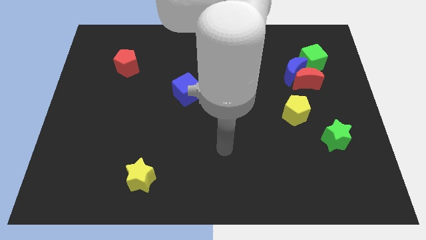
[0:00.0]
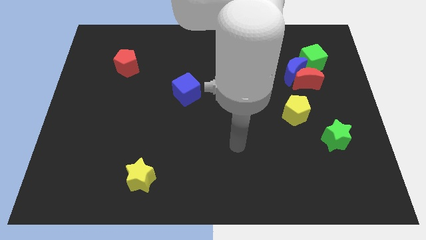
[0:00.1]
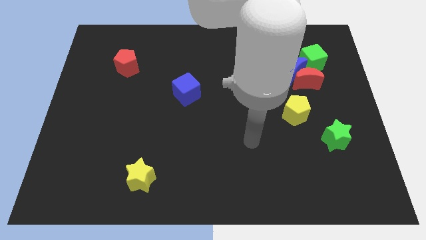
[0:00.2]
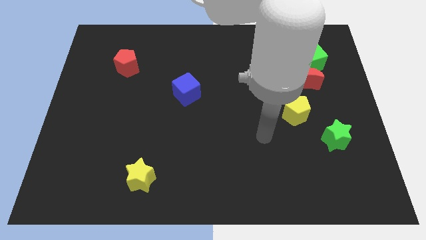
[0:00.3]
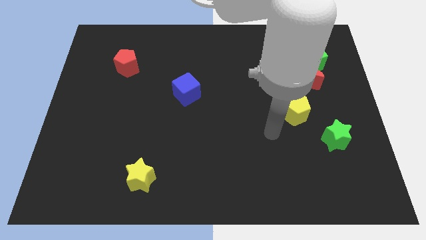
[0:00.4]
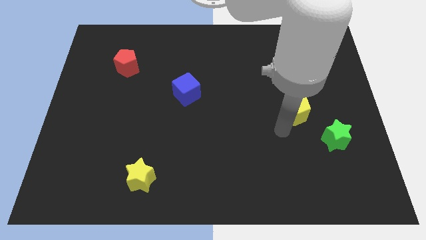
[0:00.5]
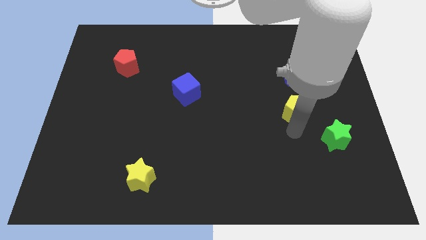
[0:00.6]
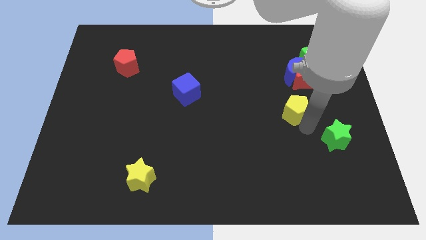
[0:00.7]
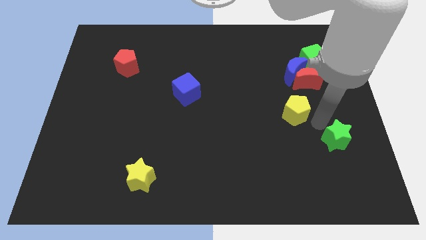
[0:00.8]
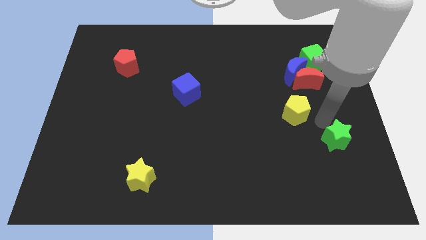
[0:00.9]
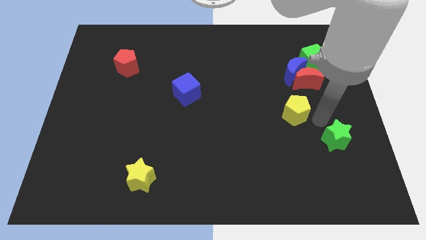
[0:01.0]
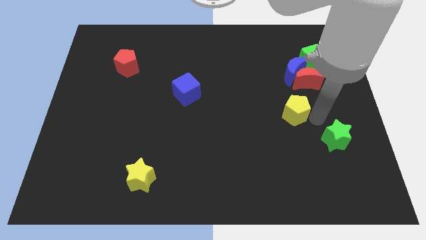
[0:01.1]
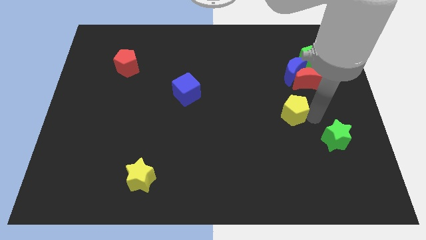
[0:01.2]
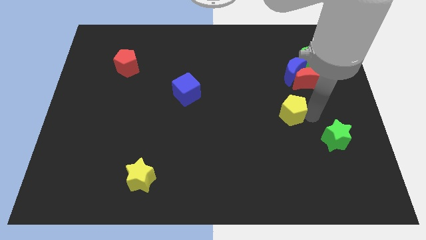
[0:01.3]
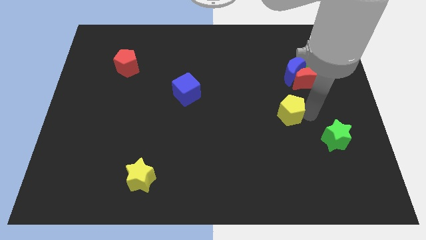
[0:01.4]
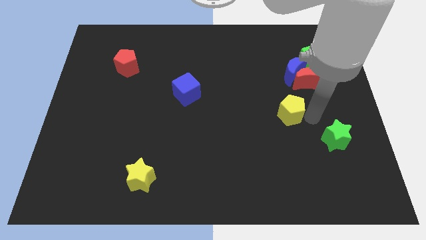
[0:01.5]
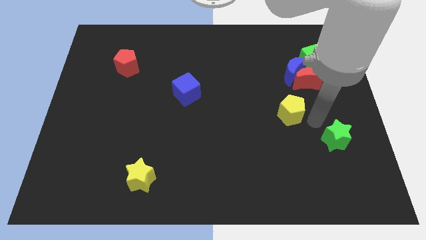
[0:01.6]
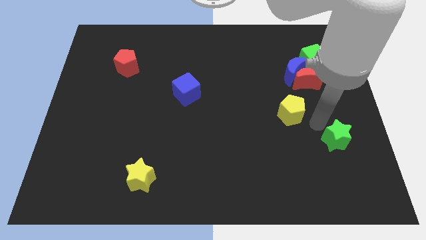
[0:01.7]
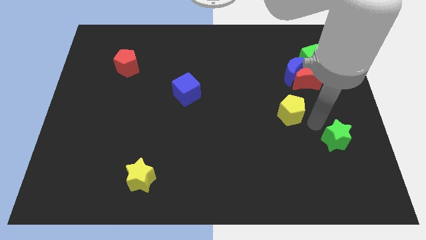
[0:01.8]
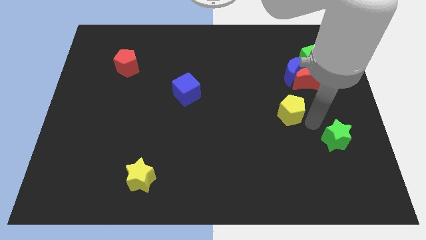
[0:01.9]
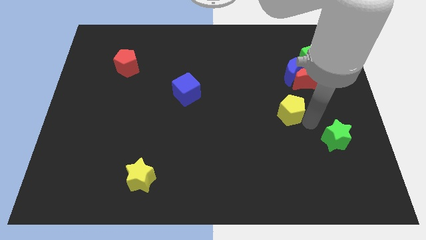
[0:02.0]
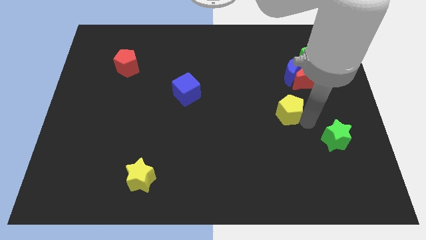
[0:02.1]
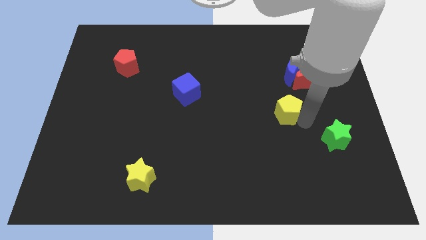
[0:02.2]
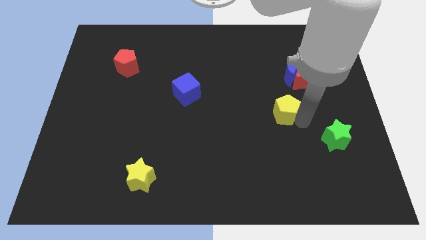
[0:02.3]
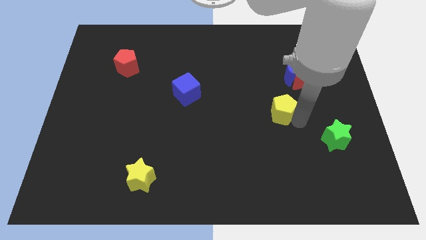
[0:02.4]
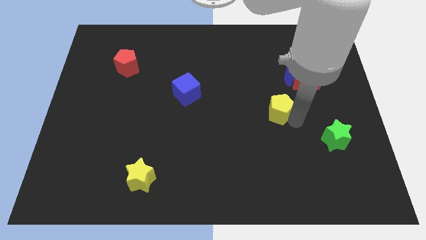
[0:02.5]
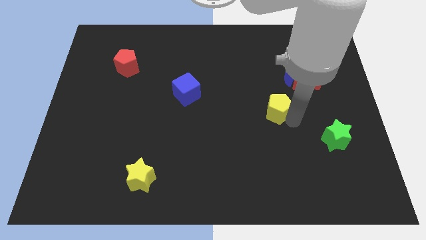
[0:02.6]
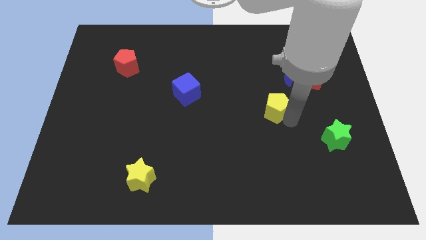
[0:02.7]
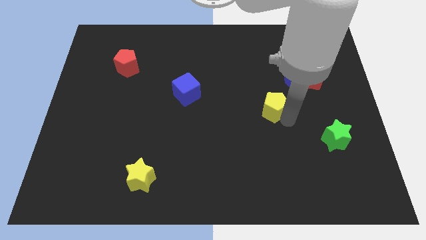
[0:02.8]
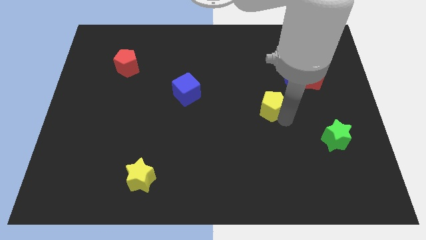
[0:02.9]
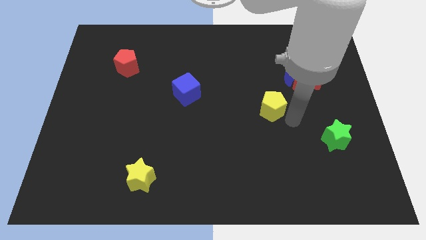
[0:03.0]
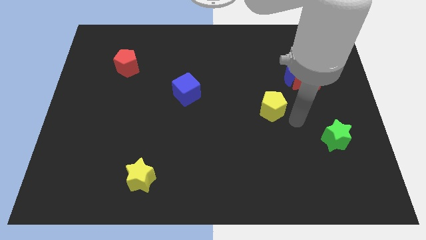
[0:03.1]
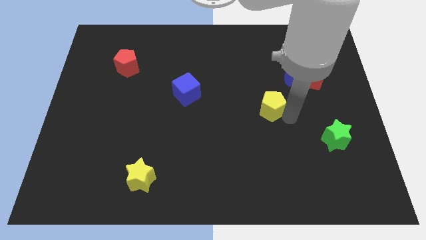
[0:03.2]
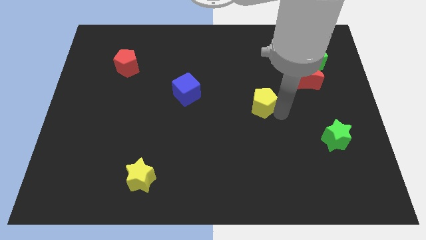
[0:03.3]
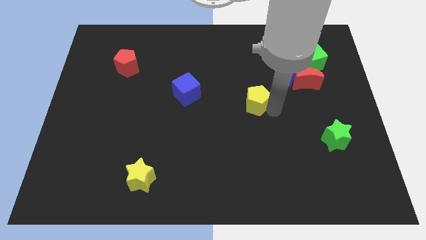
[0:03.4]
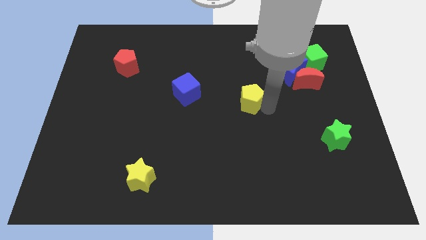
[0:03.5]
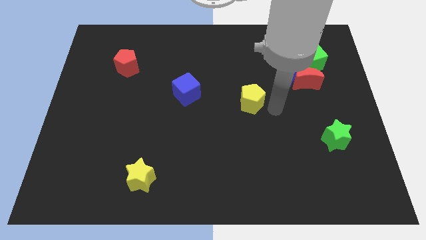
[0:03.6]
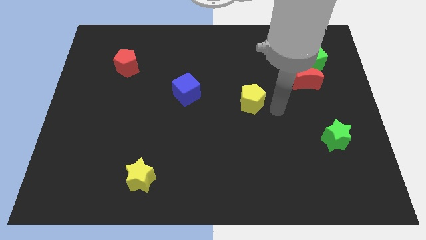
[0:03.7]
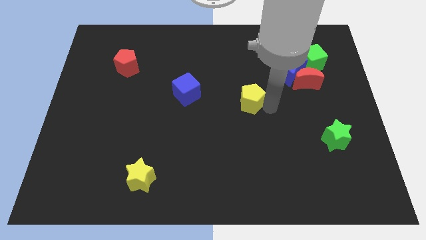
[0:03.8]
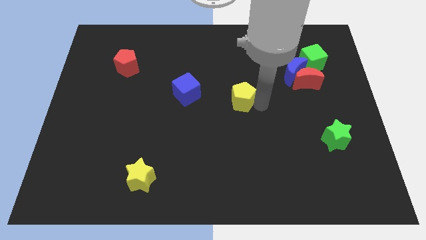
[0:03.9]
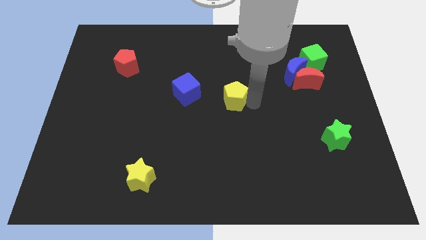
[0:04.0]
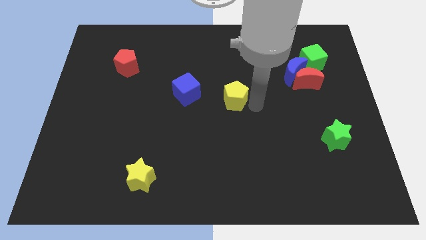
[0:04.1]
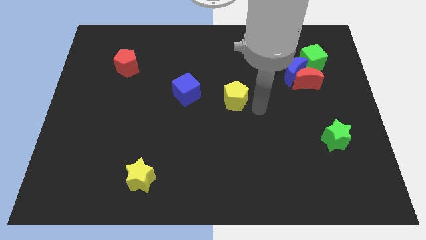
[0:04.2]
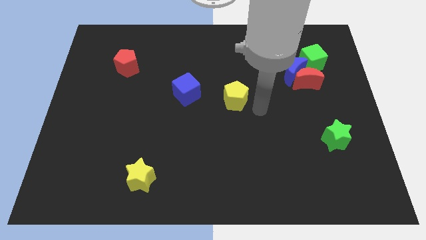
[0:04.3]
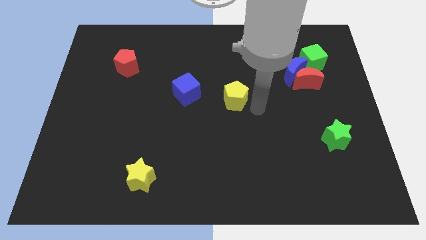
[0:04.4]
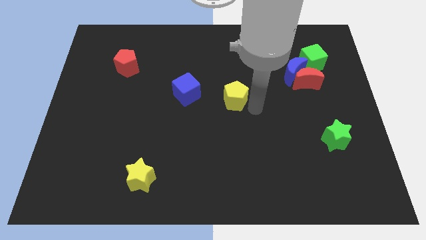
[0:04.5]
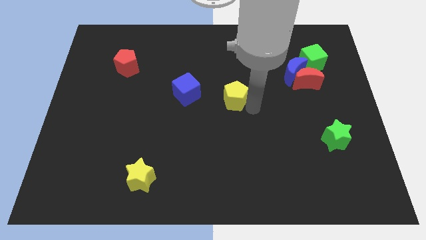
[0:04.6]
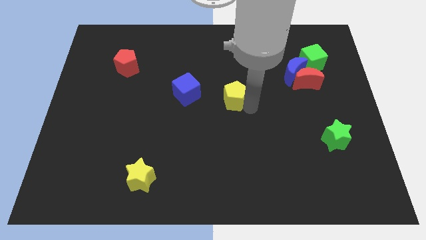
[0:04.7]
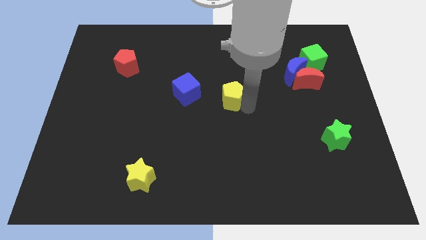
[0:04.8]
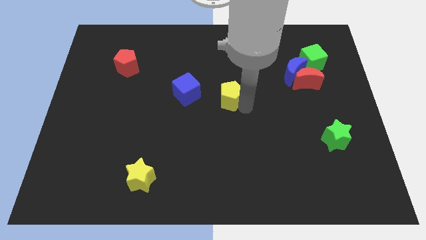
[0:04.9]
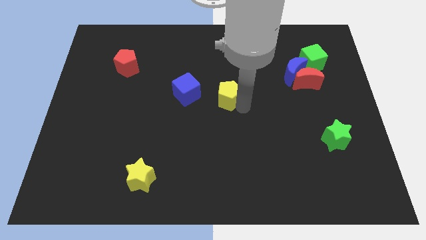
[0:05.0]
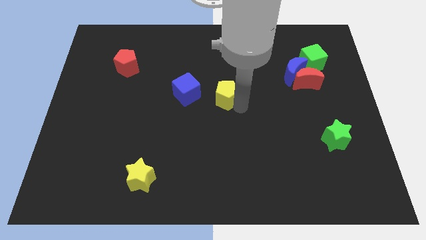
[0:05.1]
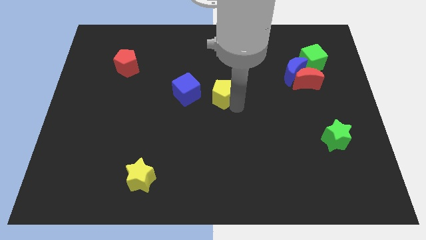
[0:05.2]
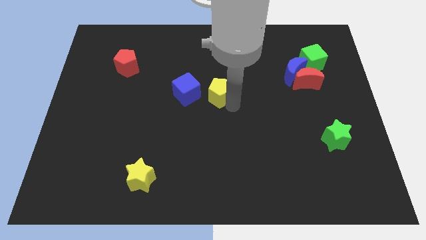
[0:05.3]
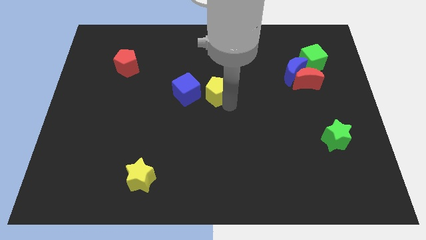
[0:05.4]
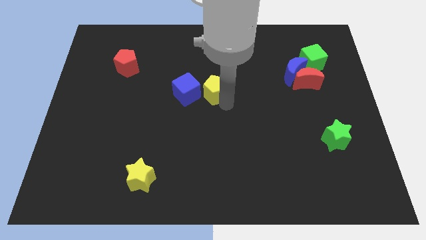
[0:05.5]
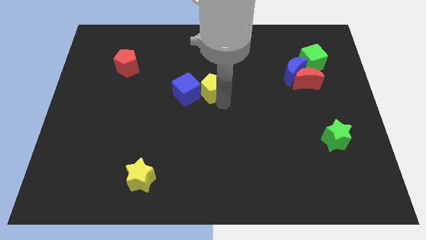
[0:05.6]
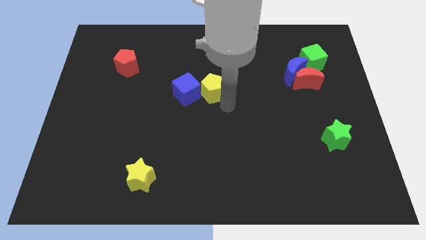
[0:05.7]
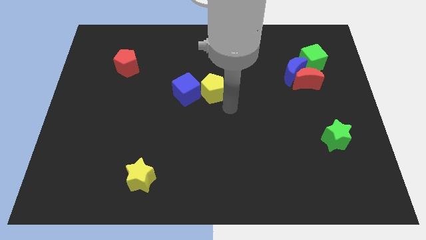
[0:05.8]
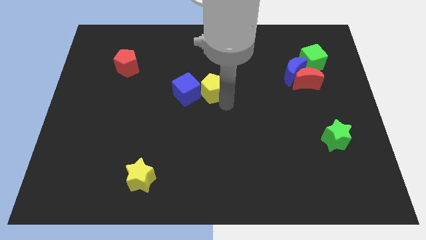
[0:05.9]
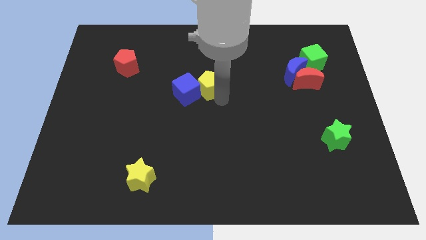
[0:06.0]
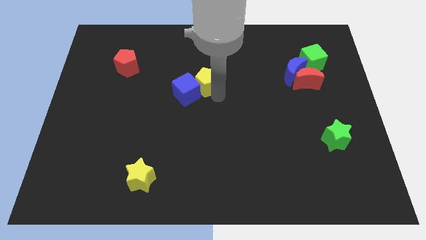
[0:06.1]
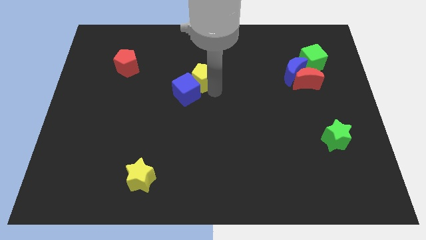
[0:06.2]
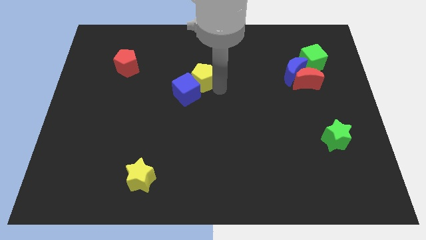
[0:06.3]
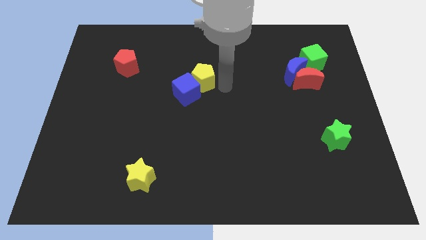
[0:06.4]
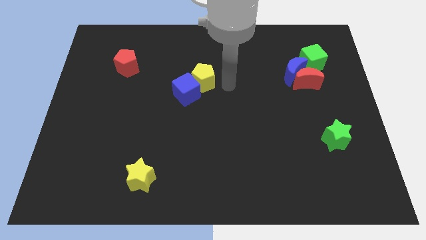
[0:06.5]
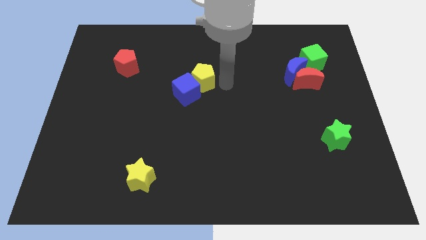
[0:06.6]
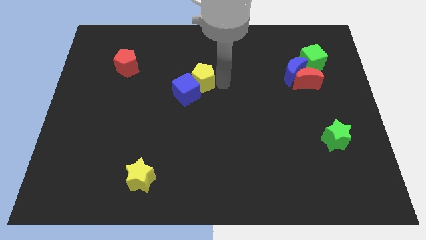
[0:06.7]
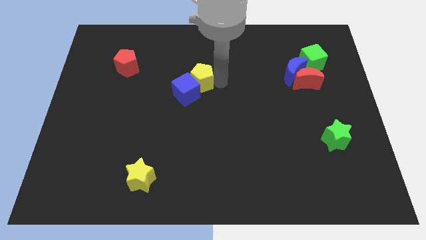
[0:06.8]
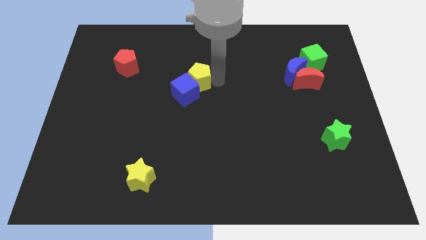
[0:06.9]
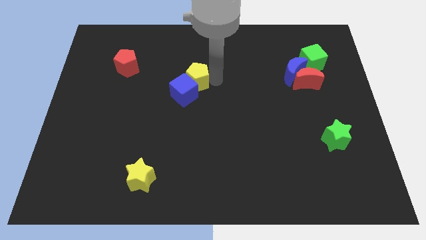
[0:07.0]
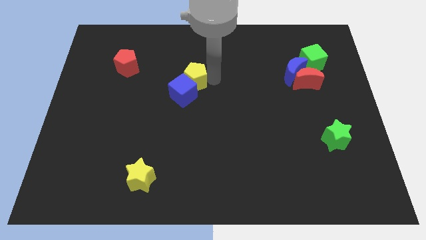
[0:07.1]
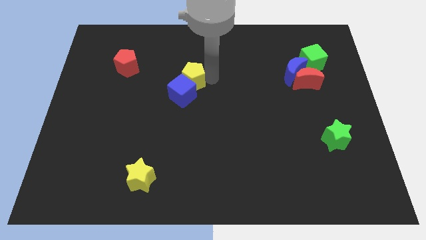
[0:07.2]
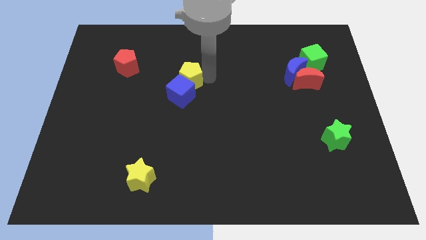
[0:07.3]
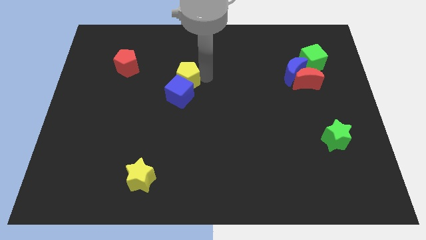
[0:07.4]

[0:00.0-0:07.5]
push the yellow pentagon diagonally up and to the left of the blue cube
